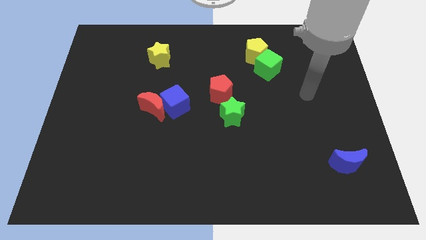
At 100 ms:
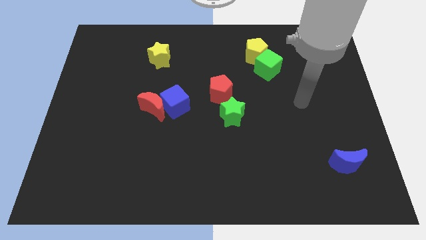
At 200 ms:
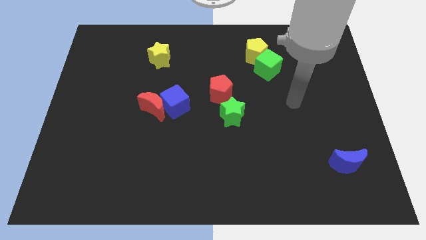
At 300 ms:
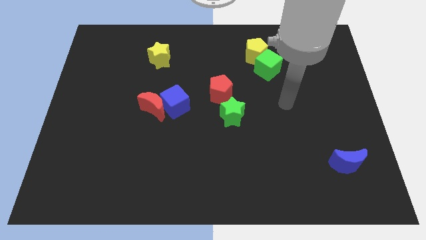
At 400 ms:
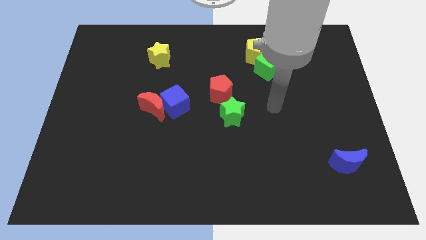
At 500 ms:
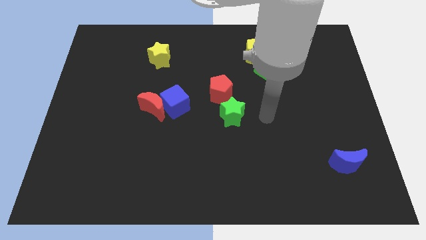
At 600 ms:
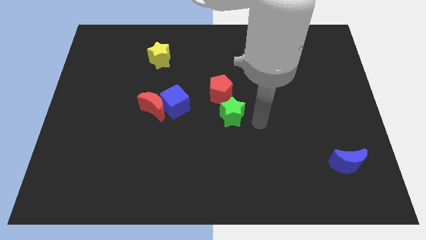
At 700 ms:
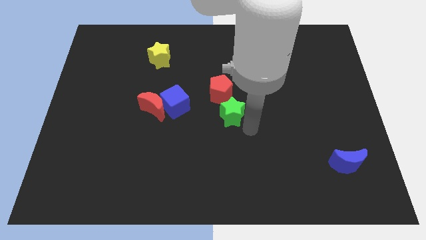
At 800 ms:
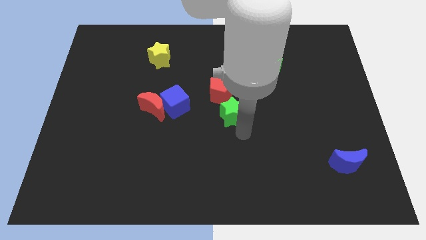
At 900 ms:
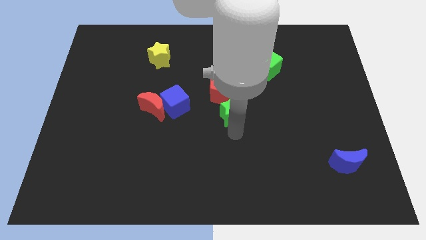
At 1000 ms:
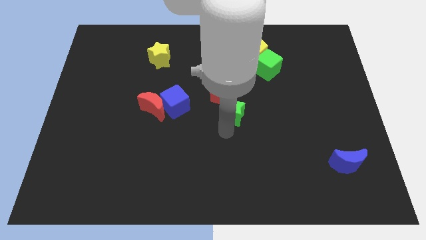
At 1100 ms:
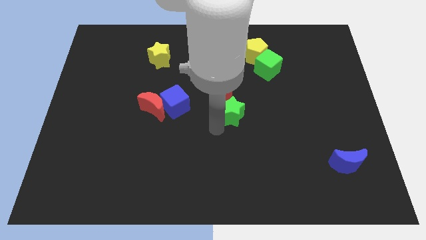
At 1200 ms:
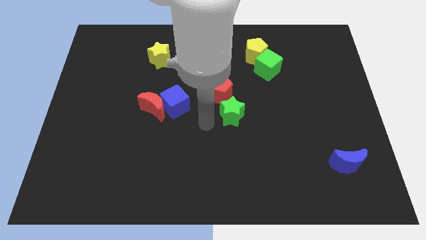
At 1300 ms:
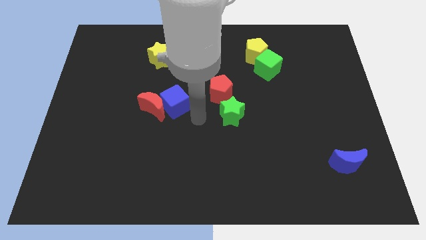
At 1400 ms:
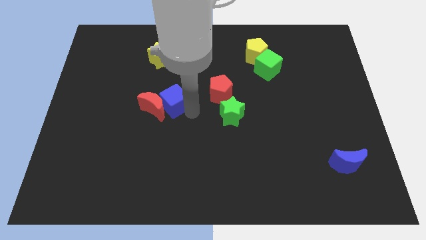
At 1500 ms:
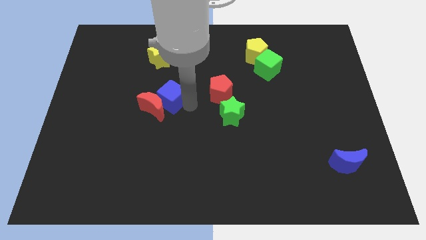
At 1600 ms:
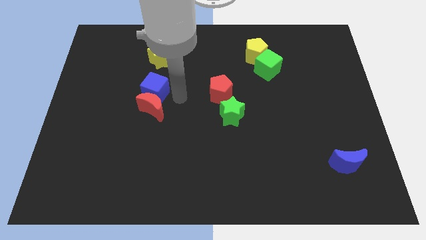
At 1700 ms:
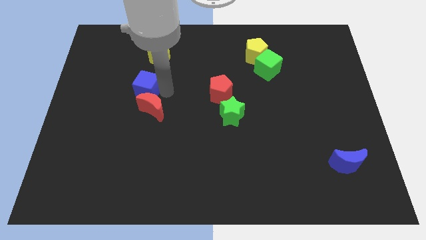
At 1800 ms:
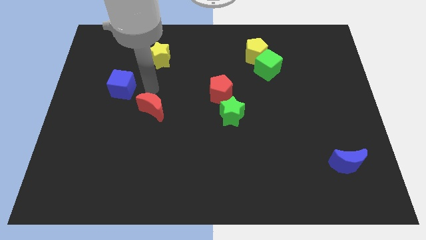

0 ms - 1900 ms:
move the red moon away from the blue cube

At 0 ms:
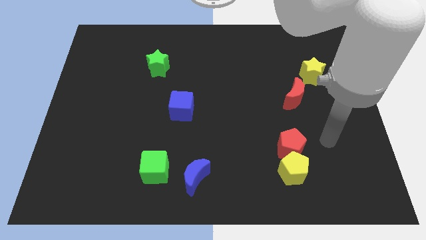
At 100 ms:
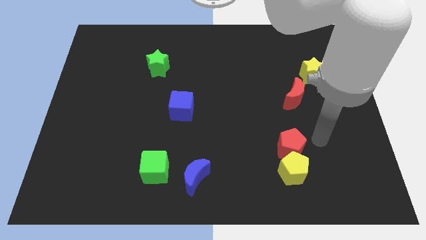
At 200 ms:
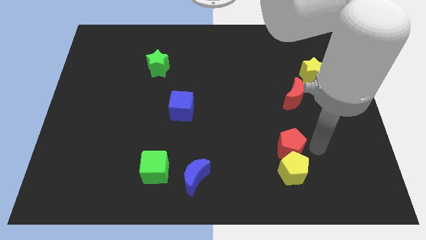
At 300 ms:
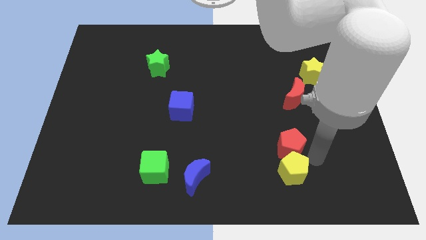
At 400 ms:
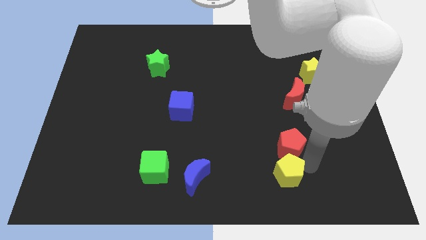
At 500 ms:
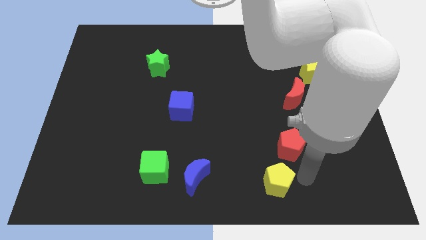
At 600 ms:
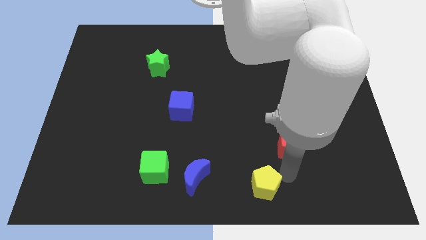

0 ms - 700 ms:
separate the red pentagon from the yellow pentagon

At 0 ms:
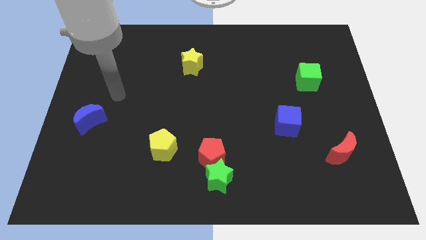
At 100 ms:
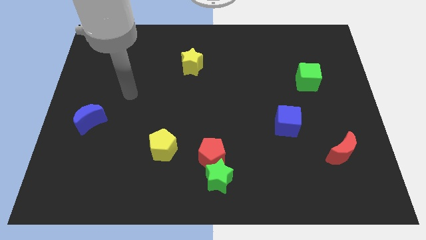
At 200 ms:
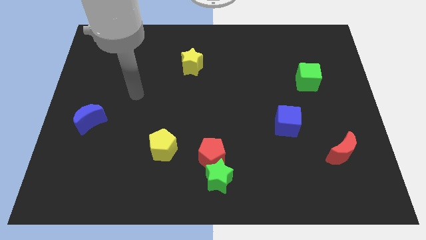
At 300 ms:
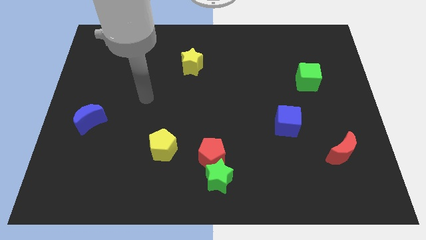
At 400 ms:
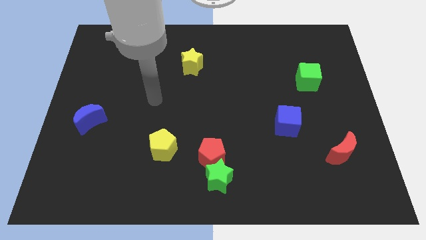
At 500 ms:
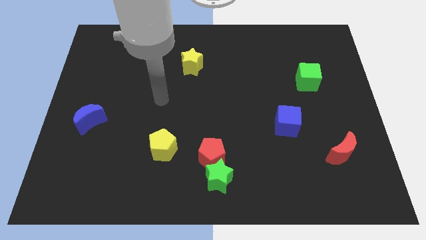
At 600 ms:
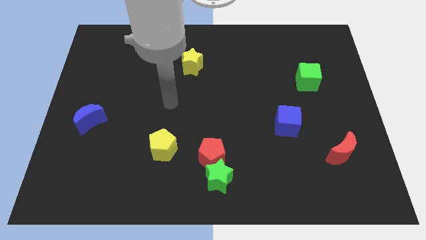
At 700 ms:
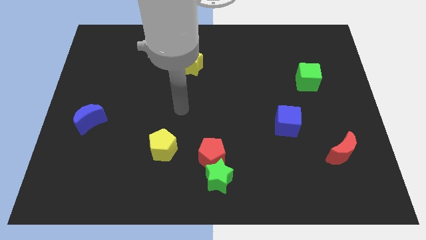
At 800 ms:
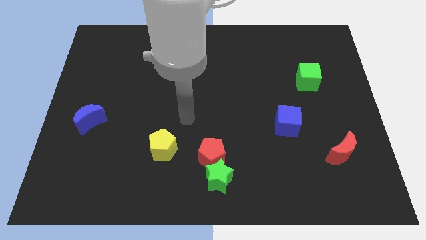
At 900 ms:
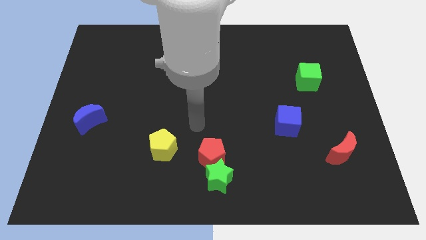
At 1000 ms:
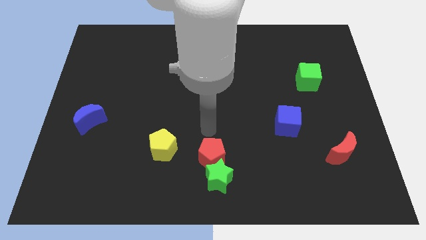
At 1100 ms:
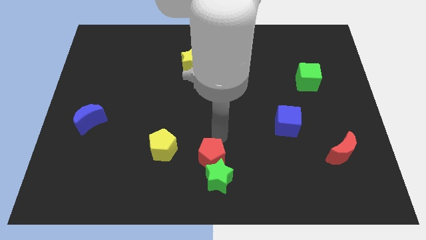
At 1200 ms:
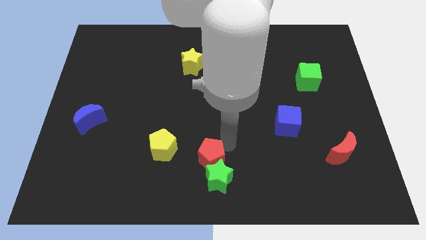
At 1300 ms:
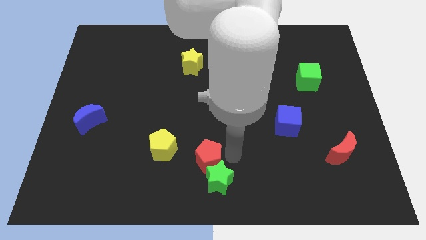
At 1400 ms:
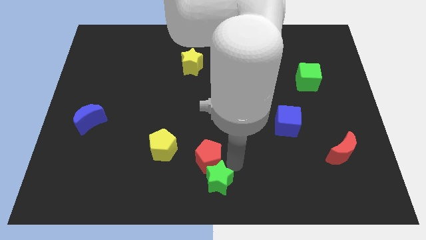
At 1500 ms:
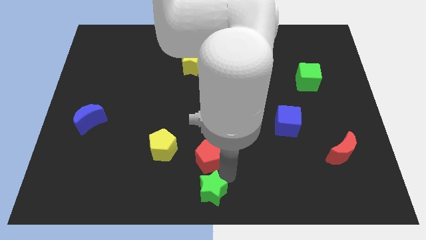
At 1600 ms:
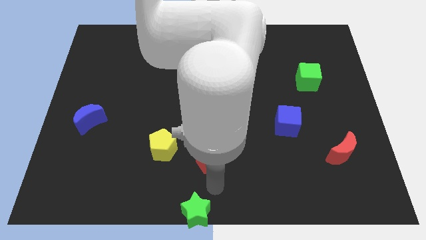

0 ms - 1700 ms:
separate the red pentagon from the green star

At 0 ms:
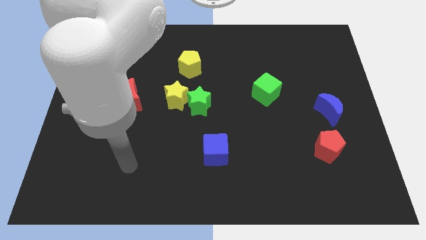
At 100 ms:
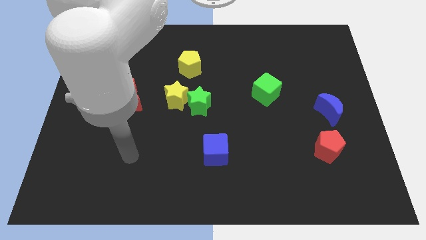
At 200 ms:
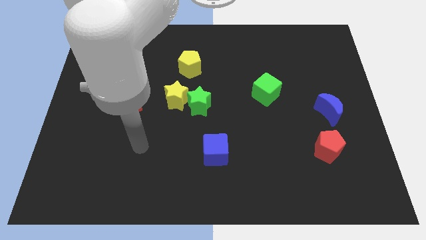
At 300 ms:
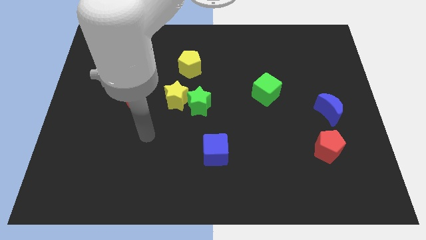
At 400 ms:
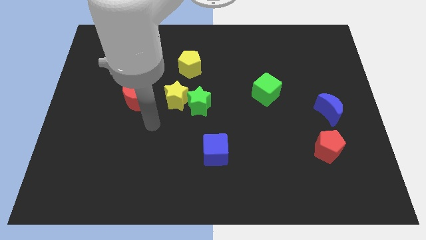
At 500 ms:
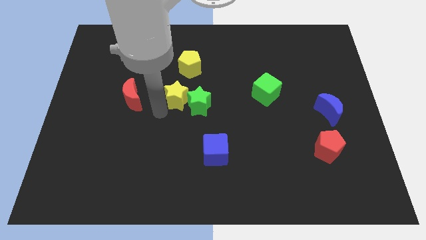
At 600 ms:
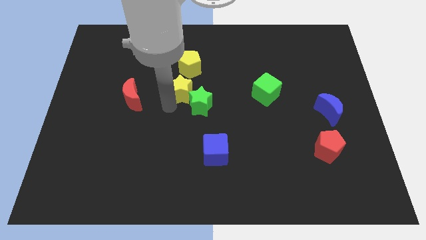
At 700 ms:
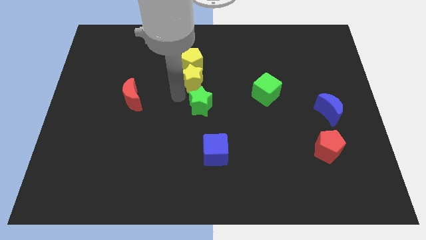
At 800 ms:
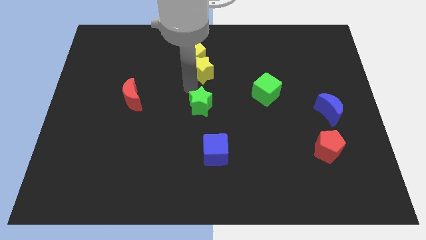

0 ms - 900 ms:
pull the green star apart from the yellow star

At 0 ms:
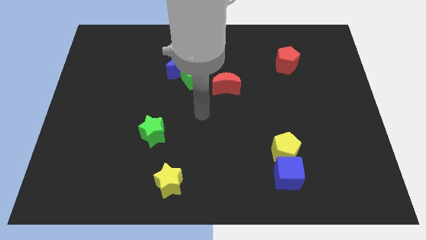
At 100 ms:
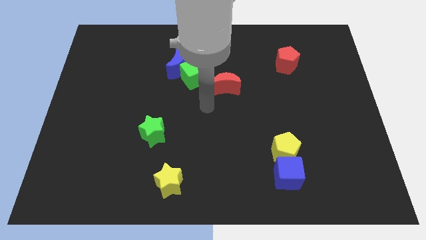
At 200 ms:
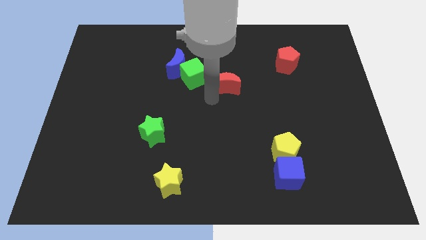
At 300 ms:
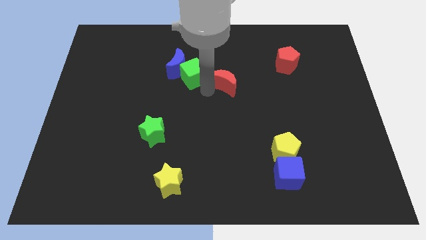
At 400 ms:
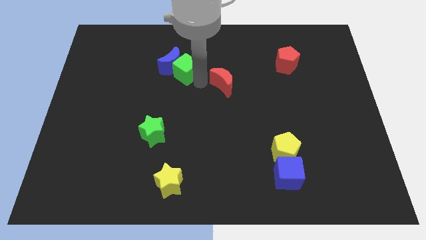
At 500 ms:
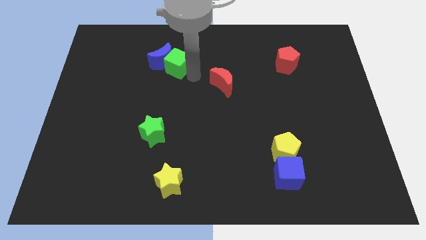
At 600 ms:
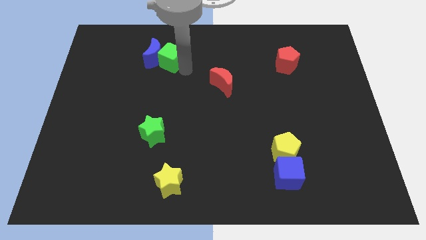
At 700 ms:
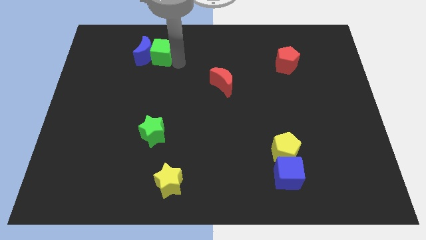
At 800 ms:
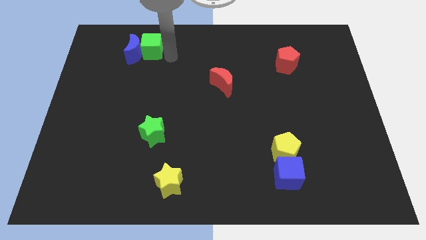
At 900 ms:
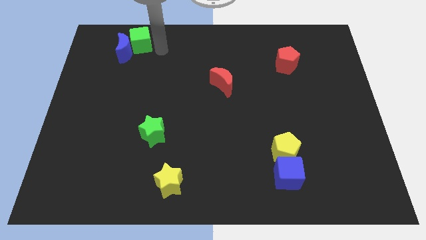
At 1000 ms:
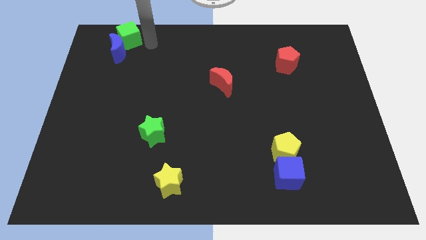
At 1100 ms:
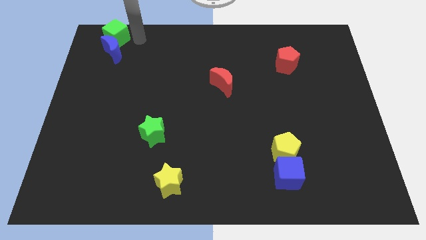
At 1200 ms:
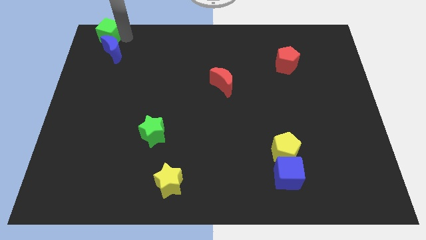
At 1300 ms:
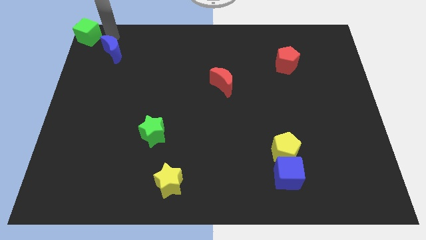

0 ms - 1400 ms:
move the blue moon away from the green cube

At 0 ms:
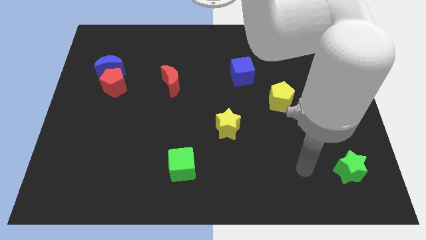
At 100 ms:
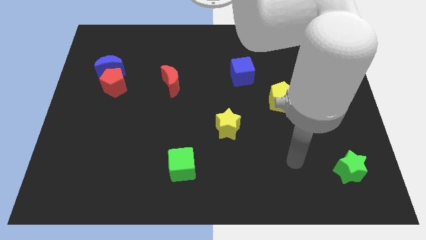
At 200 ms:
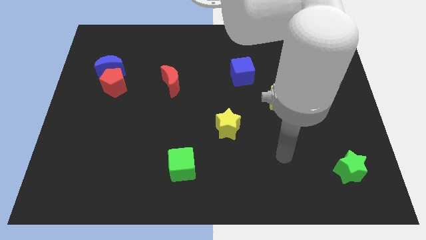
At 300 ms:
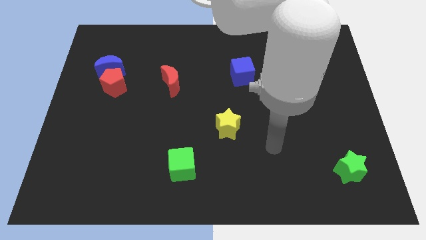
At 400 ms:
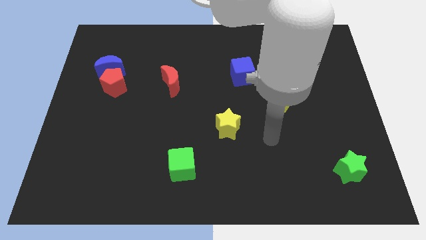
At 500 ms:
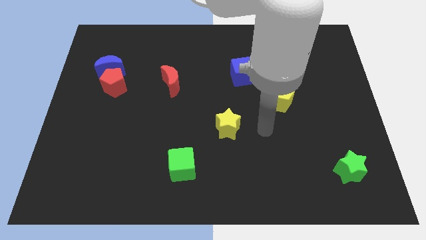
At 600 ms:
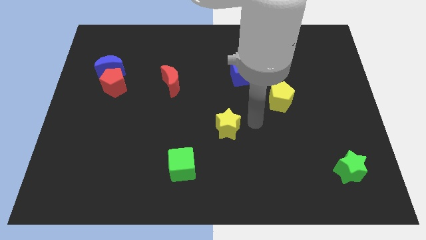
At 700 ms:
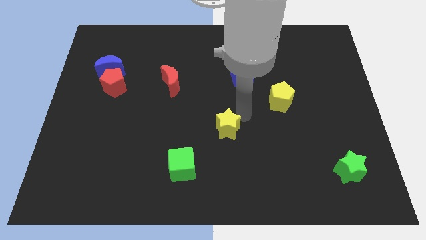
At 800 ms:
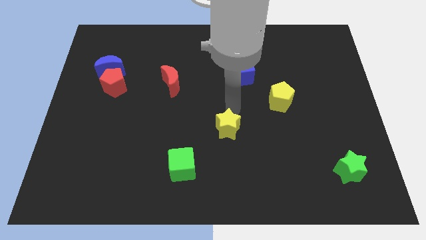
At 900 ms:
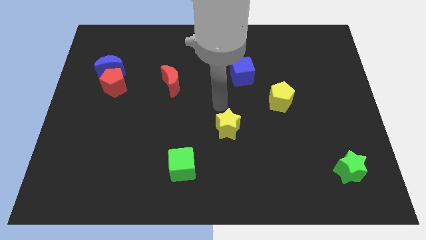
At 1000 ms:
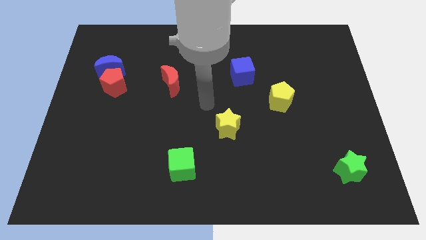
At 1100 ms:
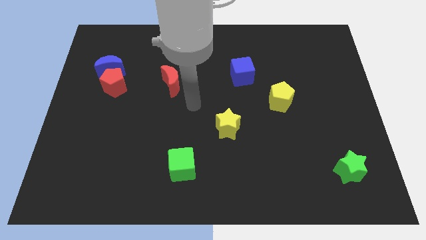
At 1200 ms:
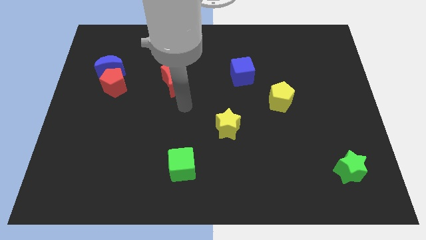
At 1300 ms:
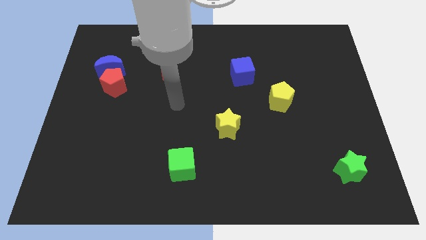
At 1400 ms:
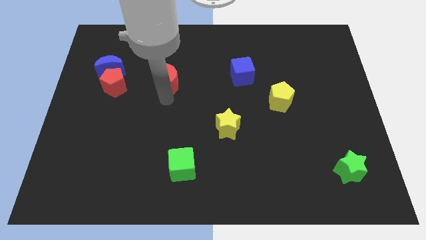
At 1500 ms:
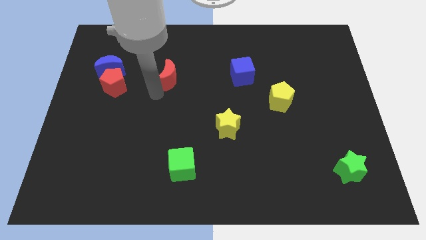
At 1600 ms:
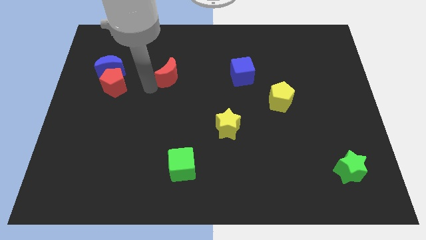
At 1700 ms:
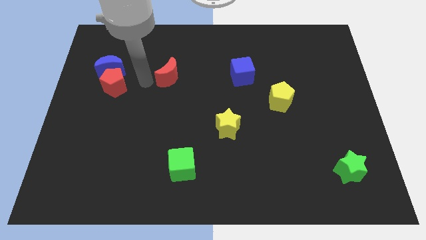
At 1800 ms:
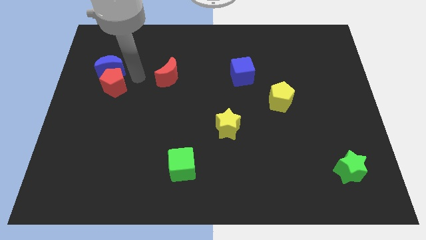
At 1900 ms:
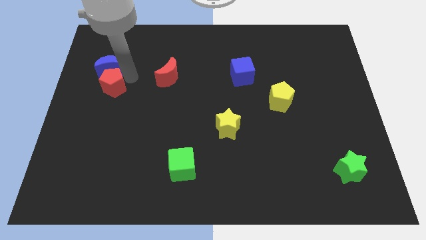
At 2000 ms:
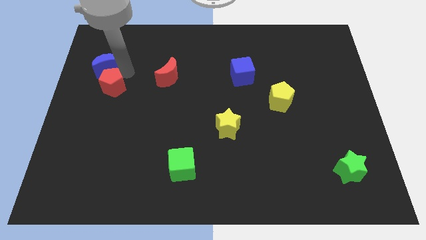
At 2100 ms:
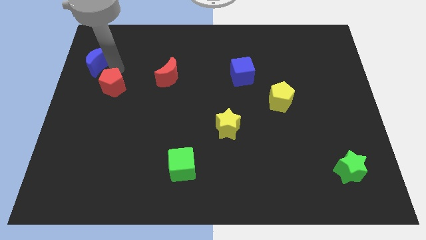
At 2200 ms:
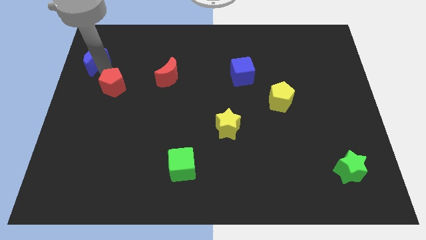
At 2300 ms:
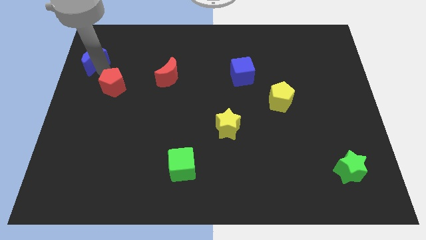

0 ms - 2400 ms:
move the red pentagon away from the blue moon

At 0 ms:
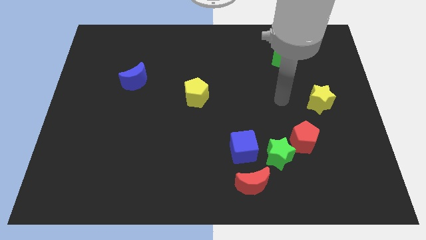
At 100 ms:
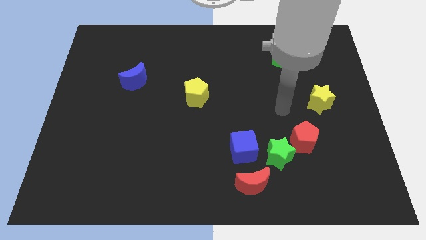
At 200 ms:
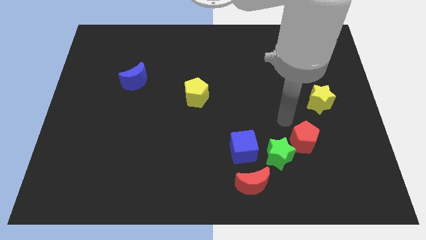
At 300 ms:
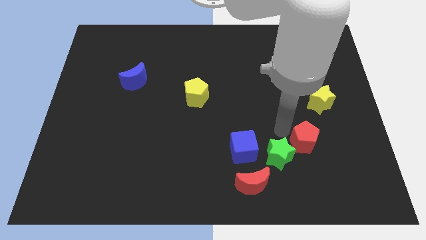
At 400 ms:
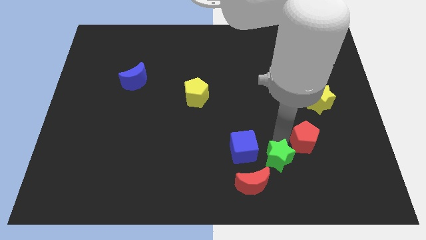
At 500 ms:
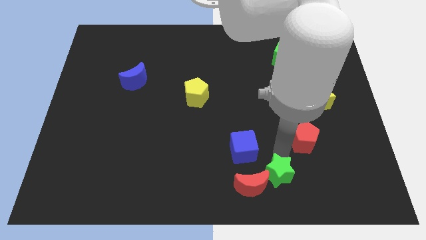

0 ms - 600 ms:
pull the red pentagon apart from the green star
